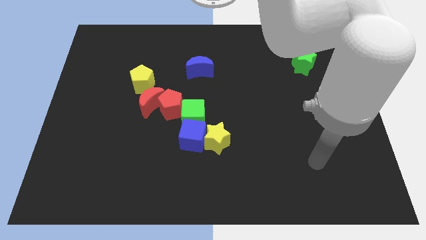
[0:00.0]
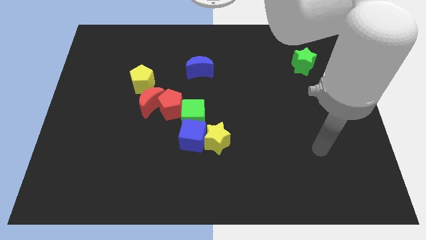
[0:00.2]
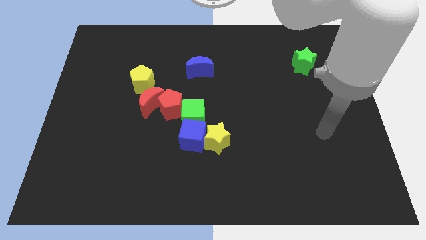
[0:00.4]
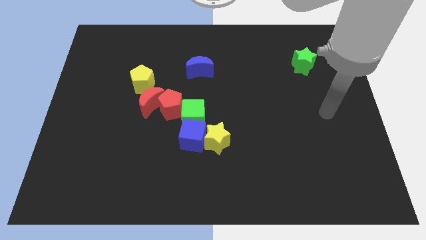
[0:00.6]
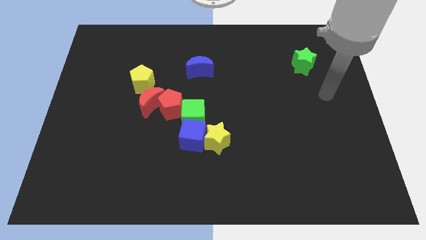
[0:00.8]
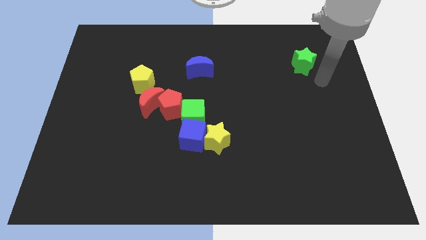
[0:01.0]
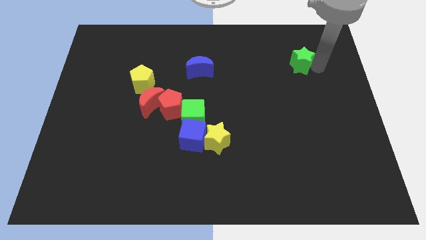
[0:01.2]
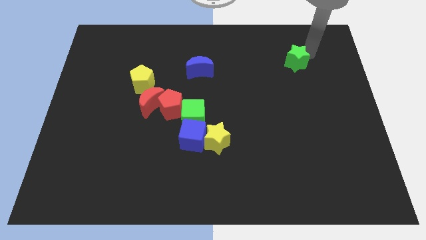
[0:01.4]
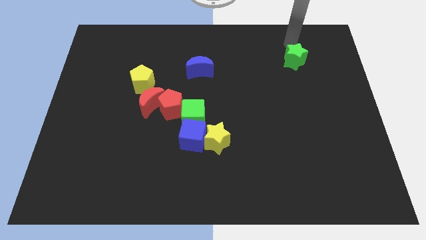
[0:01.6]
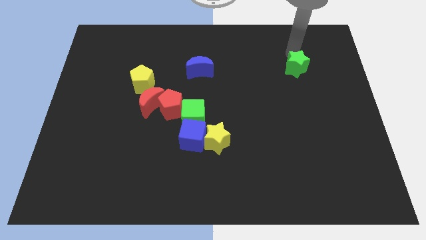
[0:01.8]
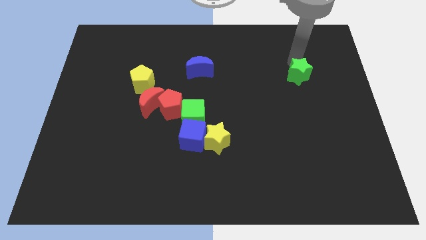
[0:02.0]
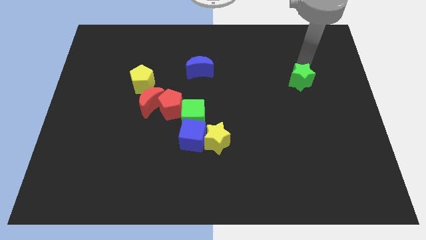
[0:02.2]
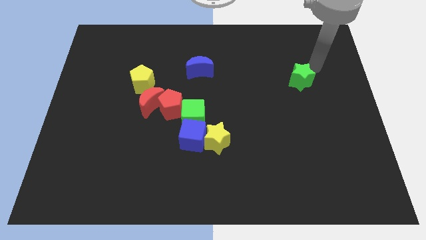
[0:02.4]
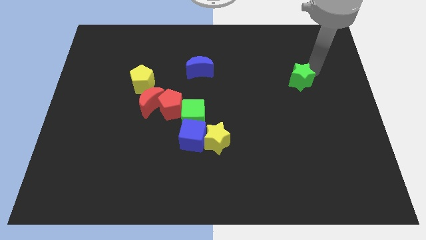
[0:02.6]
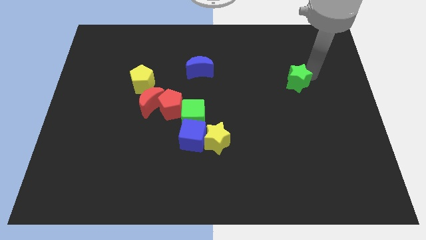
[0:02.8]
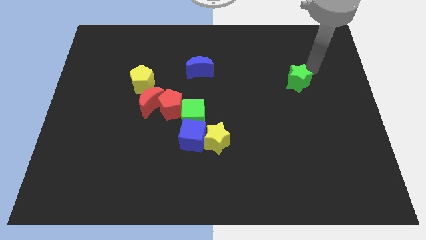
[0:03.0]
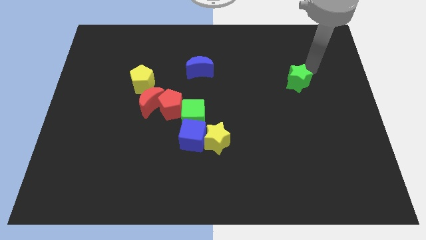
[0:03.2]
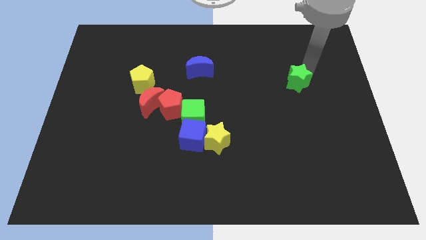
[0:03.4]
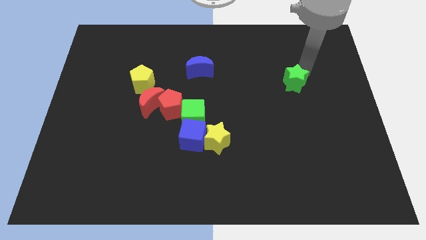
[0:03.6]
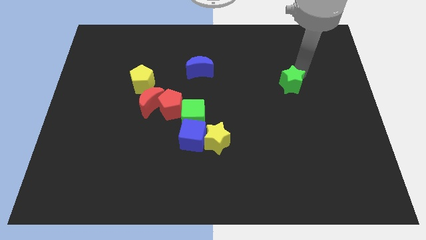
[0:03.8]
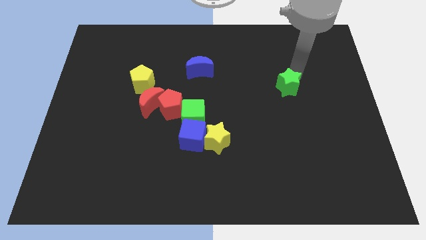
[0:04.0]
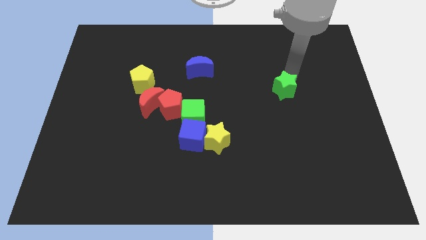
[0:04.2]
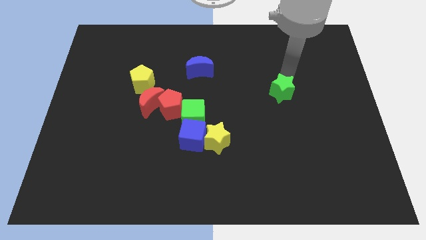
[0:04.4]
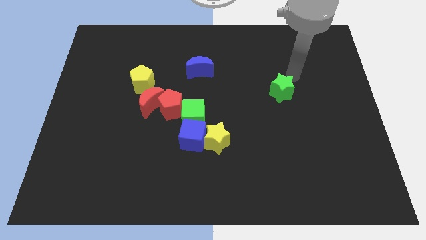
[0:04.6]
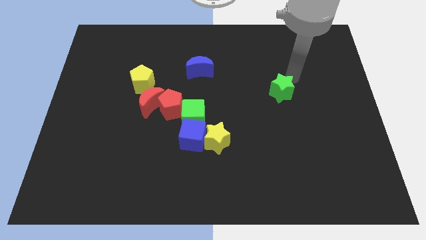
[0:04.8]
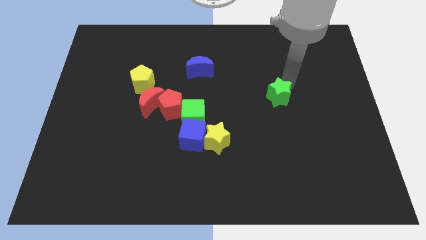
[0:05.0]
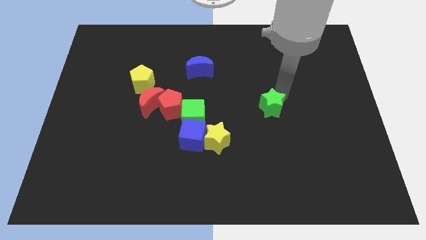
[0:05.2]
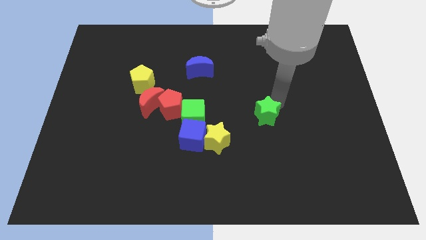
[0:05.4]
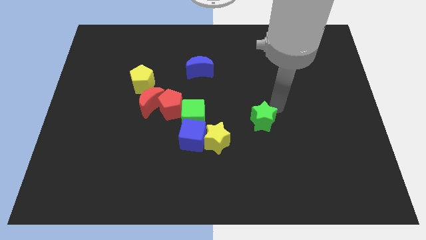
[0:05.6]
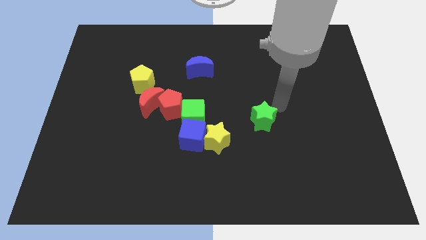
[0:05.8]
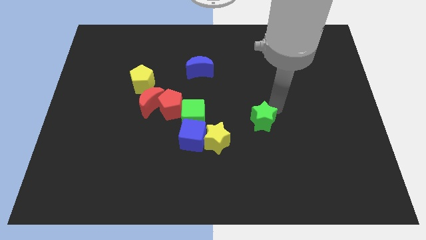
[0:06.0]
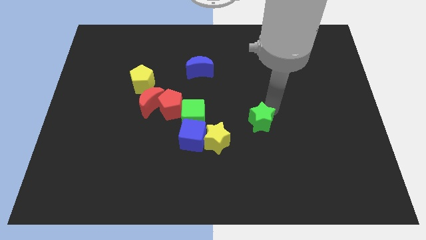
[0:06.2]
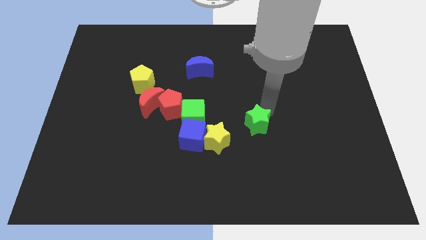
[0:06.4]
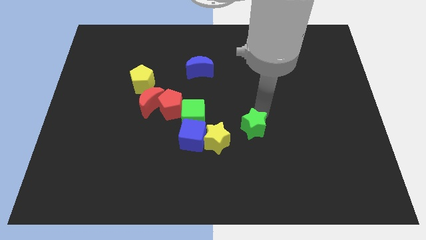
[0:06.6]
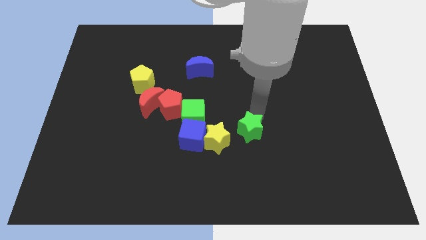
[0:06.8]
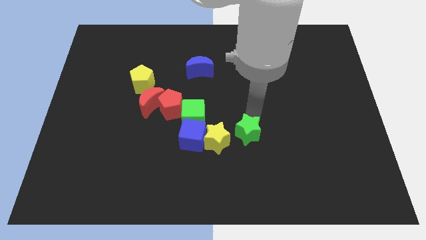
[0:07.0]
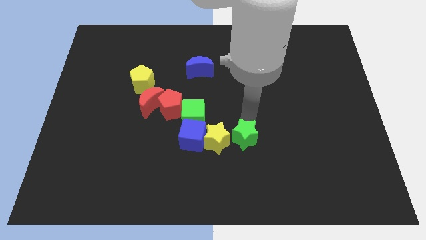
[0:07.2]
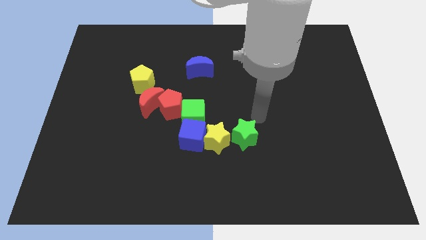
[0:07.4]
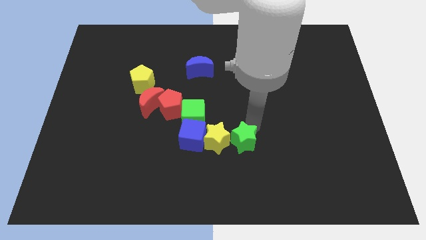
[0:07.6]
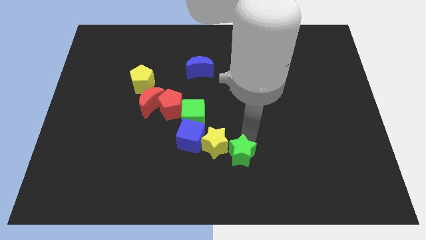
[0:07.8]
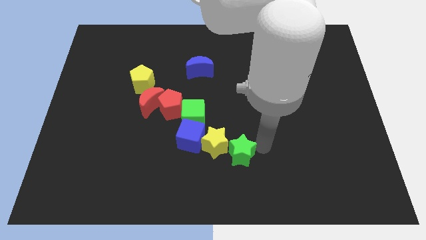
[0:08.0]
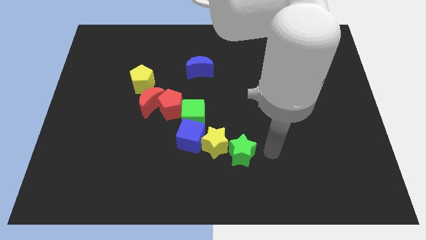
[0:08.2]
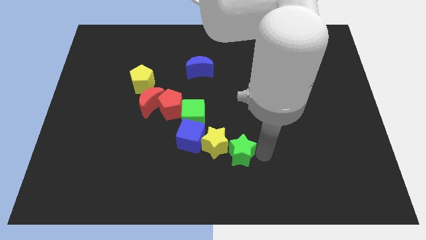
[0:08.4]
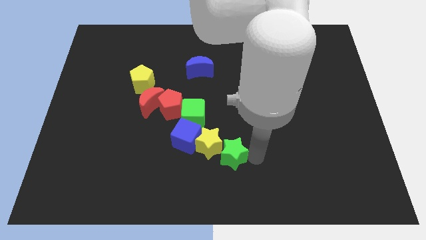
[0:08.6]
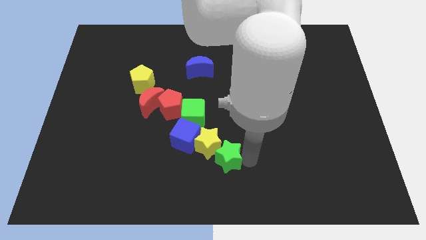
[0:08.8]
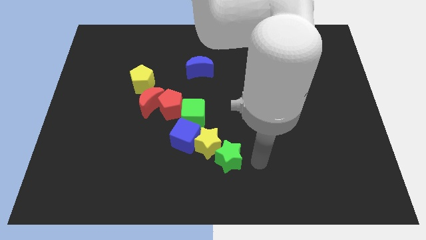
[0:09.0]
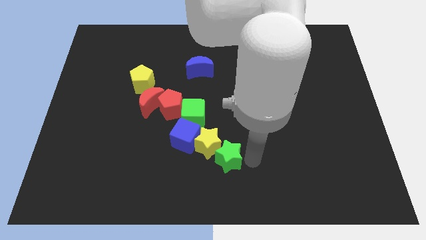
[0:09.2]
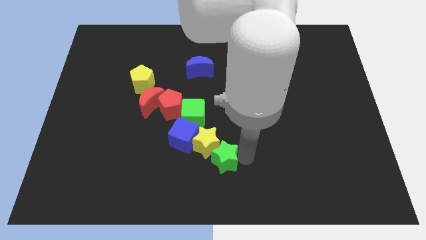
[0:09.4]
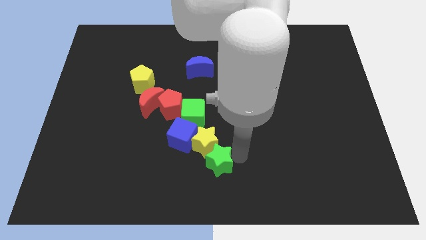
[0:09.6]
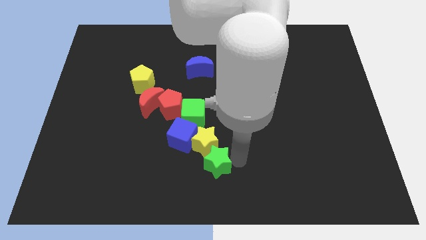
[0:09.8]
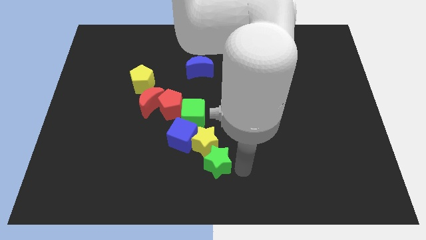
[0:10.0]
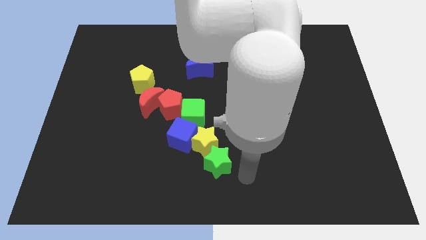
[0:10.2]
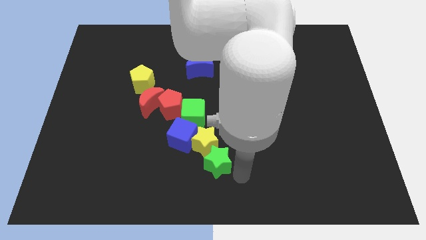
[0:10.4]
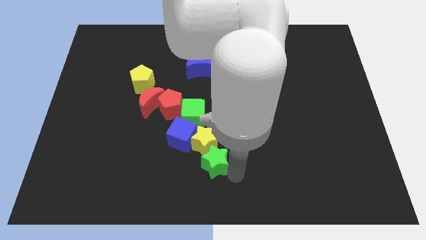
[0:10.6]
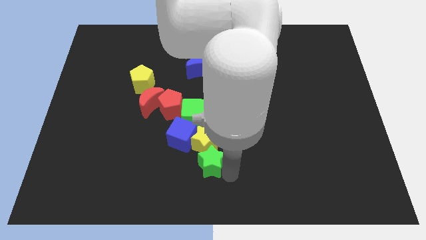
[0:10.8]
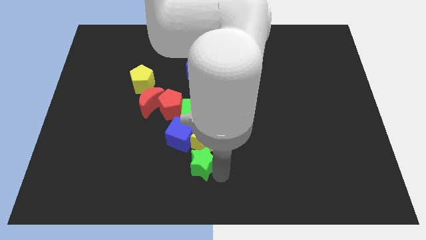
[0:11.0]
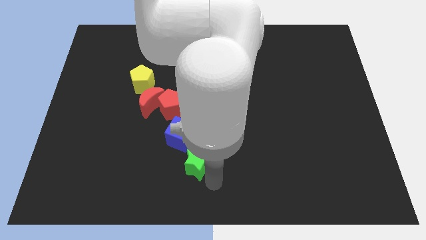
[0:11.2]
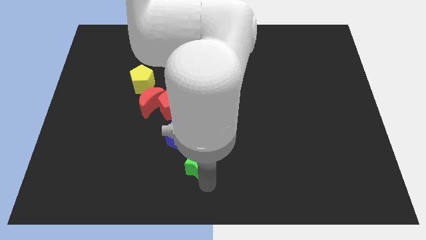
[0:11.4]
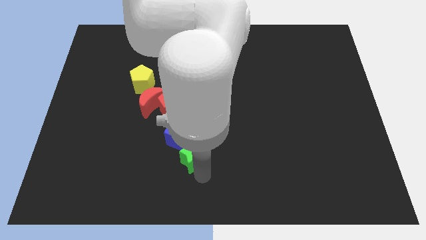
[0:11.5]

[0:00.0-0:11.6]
move the green star to the blue cube

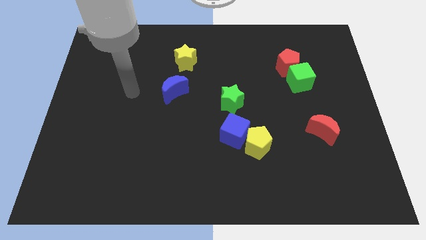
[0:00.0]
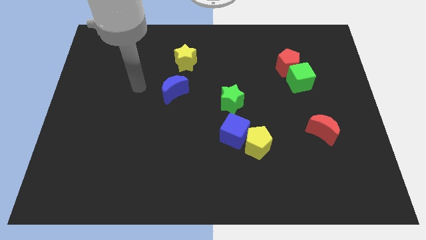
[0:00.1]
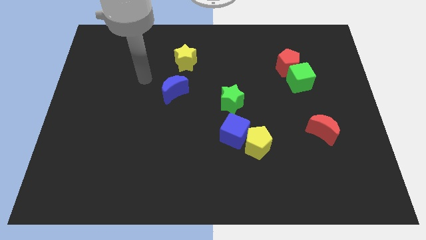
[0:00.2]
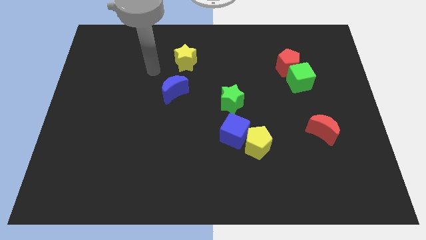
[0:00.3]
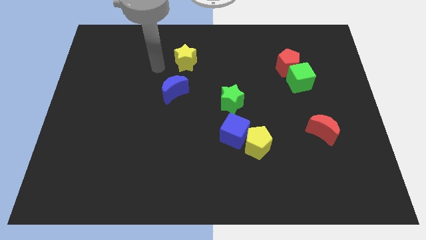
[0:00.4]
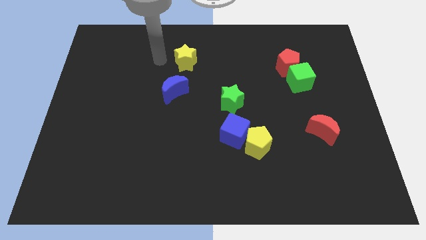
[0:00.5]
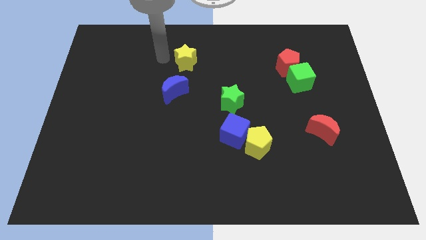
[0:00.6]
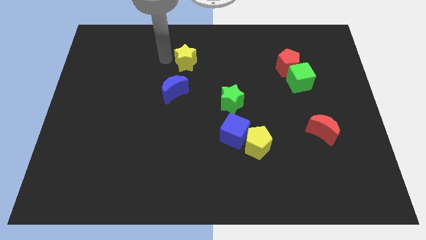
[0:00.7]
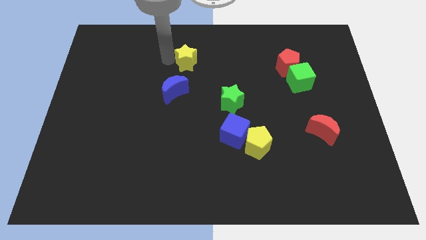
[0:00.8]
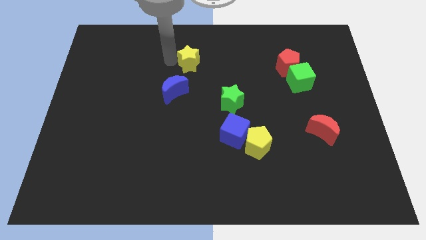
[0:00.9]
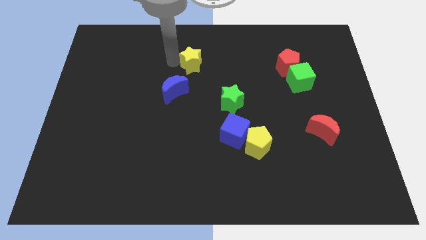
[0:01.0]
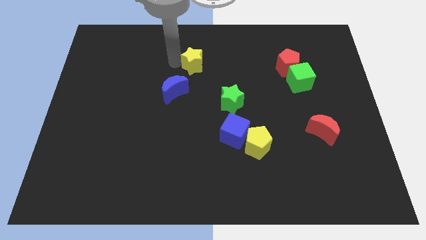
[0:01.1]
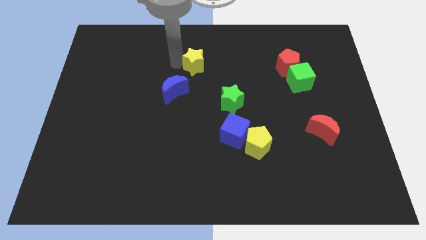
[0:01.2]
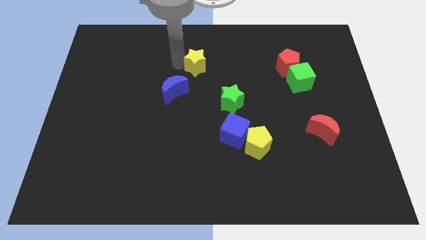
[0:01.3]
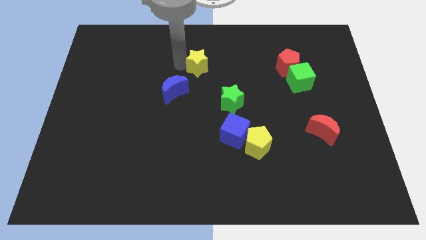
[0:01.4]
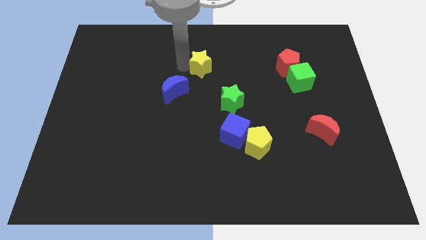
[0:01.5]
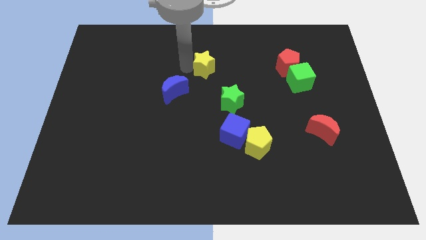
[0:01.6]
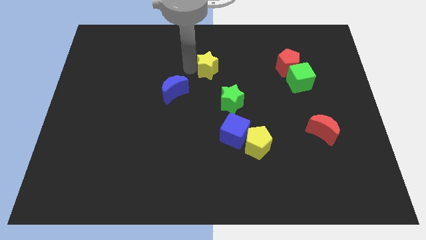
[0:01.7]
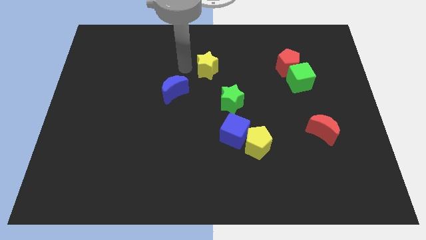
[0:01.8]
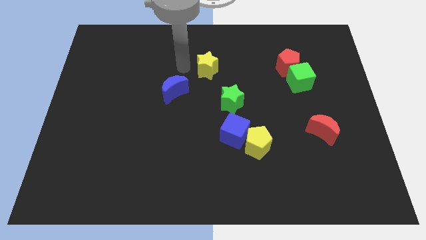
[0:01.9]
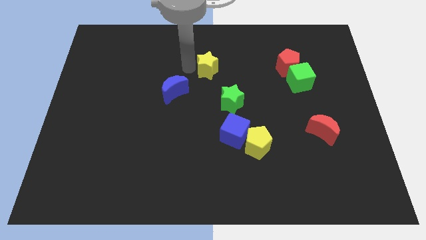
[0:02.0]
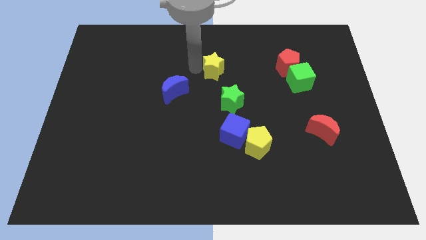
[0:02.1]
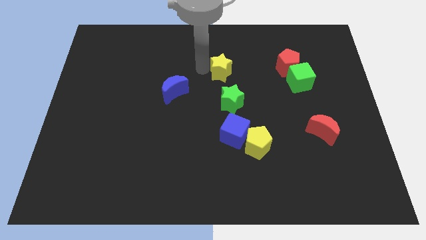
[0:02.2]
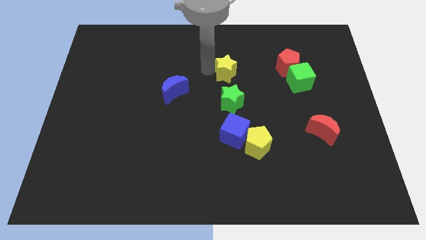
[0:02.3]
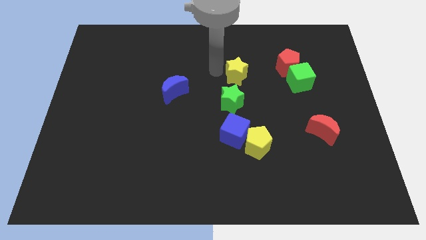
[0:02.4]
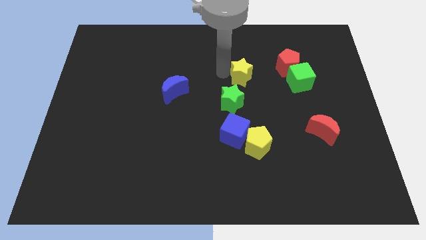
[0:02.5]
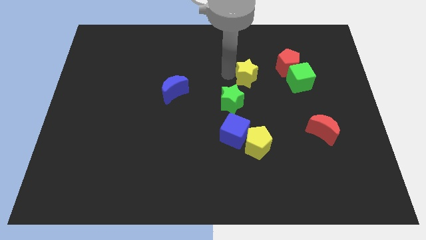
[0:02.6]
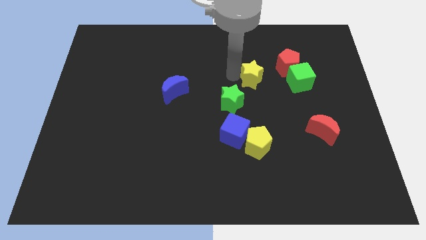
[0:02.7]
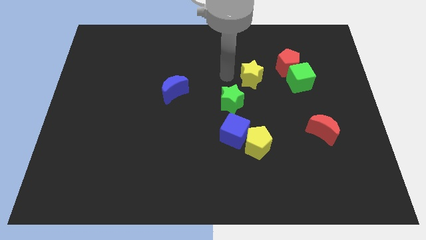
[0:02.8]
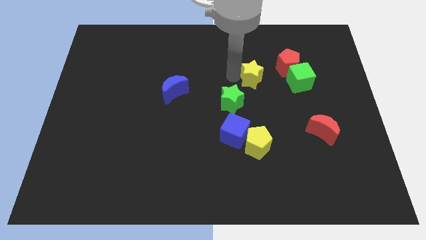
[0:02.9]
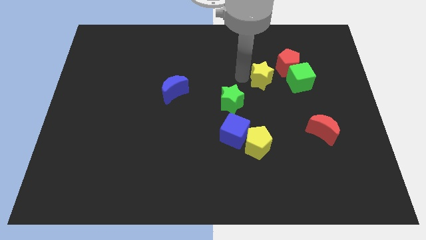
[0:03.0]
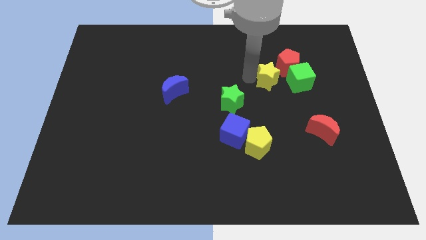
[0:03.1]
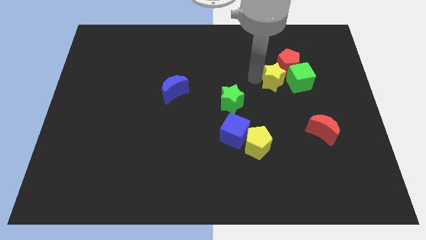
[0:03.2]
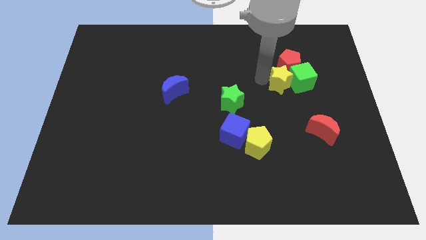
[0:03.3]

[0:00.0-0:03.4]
put the yellow star next to the green cube
